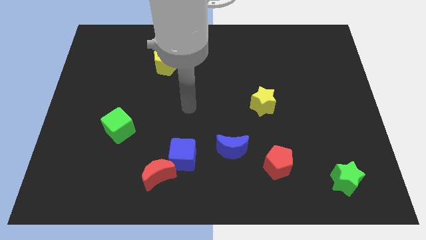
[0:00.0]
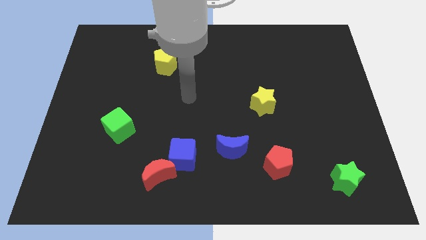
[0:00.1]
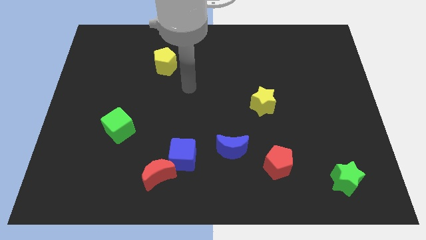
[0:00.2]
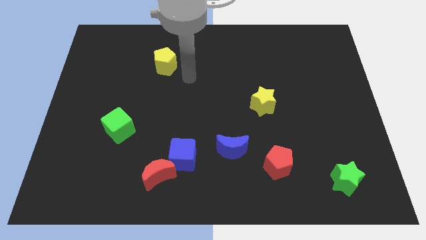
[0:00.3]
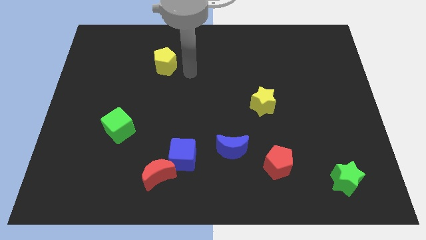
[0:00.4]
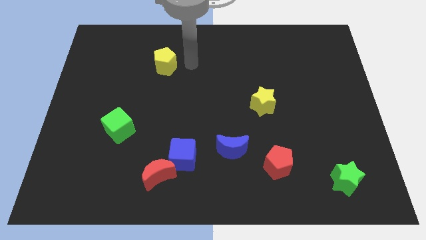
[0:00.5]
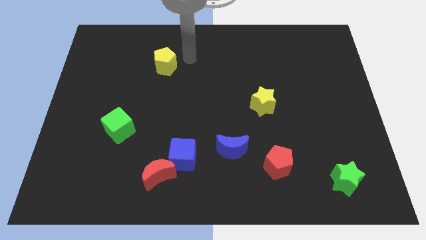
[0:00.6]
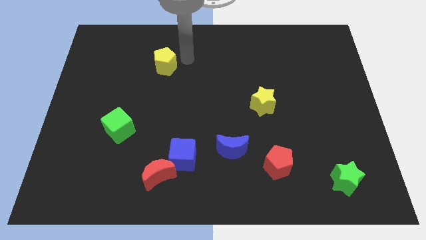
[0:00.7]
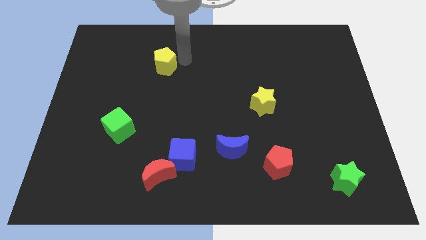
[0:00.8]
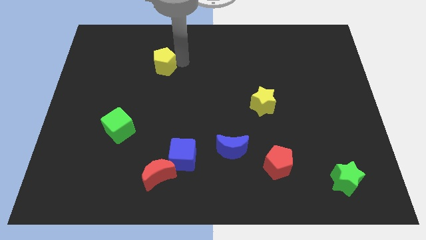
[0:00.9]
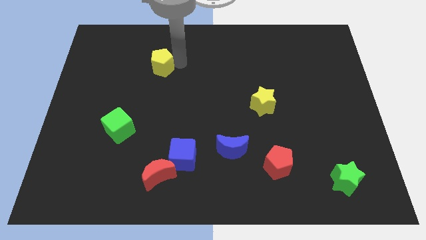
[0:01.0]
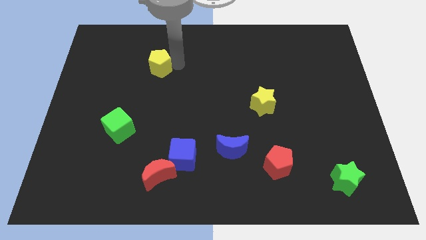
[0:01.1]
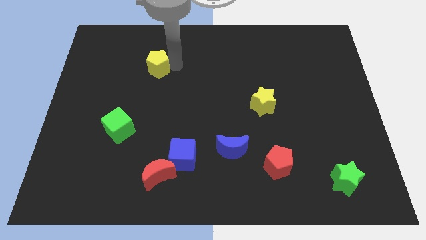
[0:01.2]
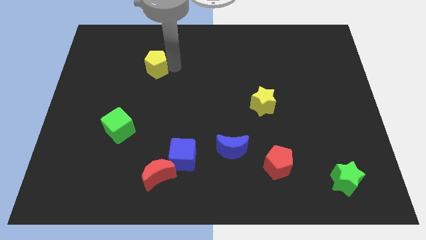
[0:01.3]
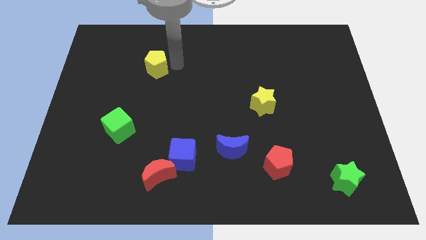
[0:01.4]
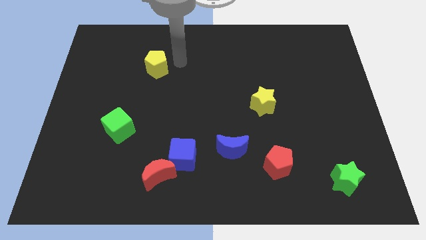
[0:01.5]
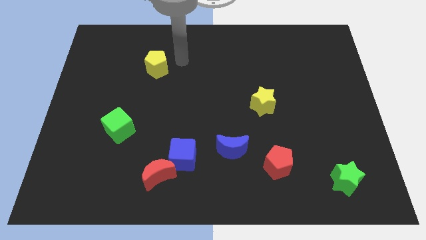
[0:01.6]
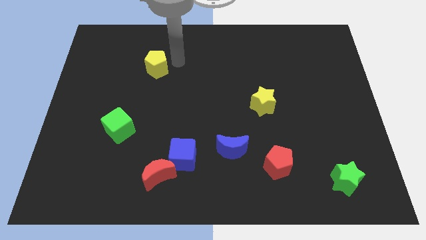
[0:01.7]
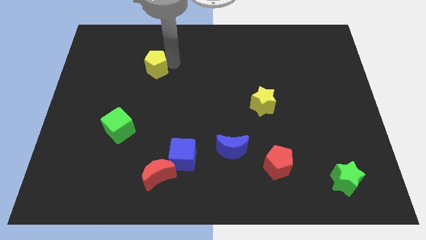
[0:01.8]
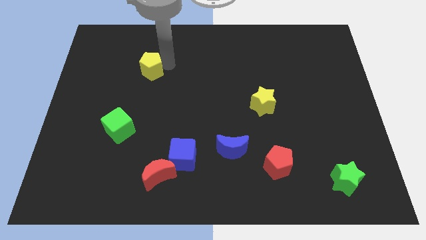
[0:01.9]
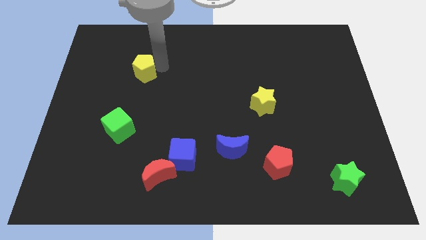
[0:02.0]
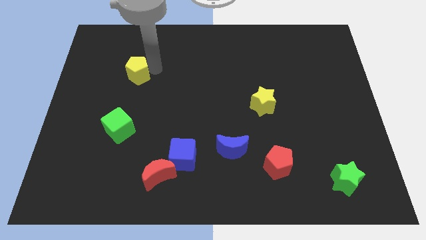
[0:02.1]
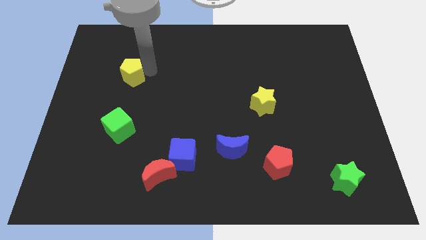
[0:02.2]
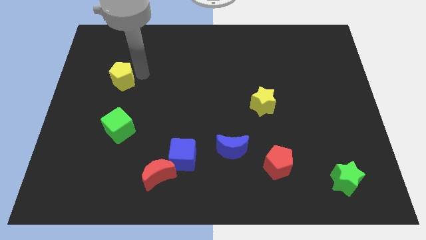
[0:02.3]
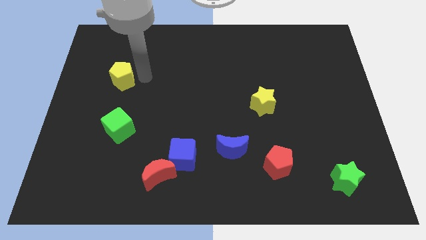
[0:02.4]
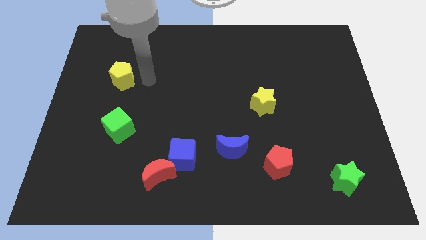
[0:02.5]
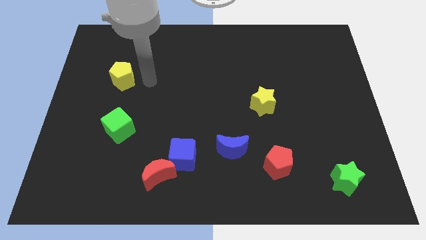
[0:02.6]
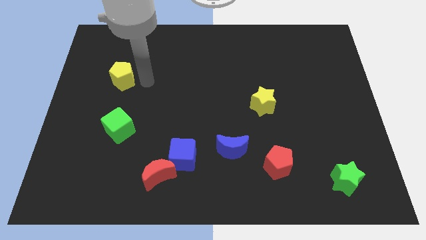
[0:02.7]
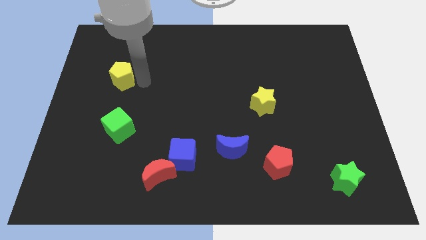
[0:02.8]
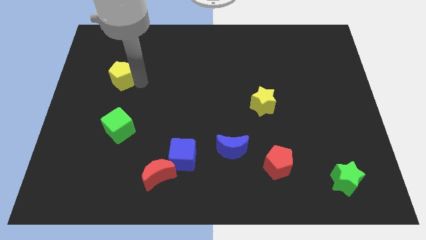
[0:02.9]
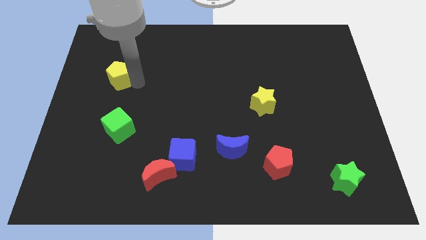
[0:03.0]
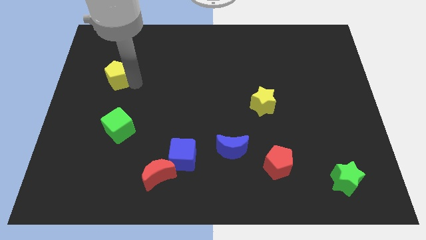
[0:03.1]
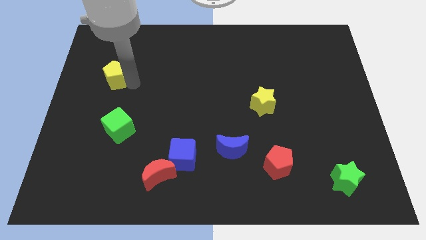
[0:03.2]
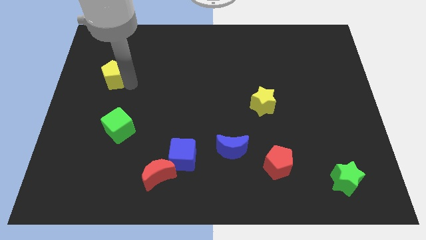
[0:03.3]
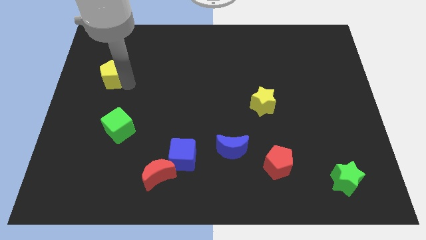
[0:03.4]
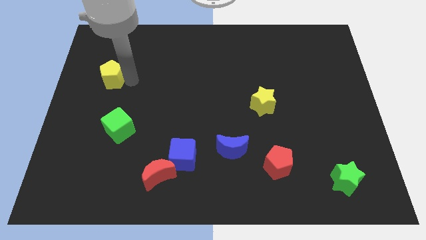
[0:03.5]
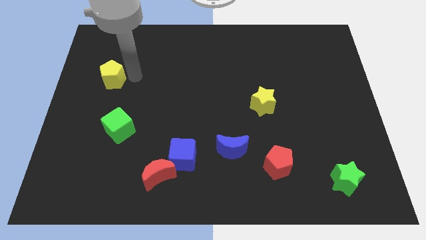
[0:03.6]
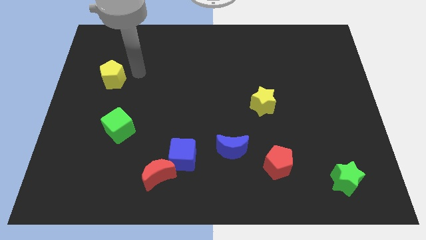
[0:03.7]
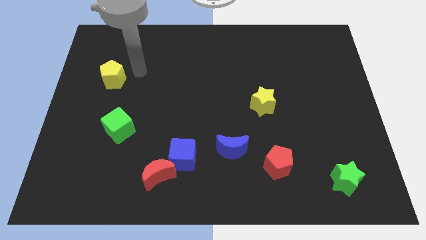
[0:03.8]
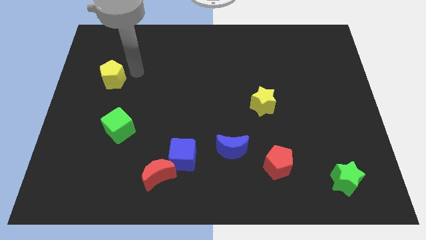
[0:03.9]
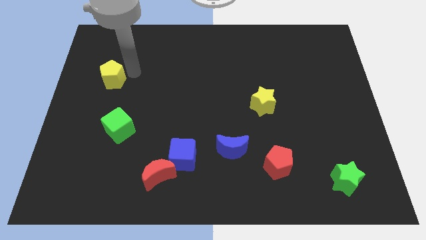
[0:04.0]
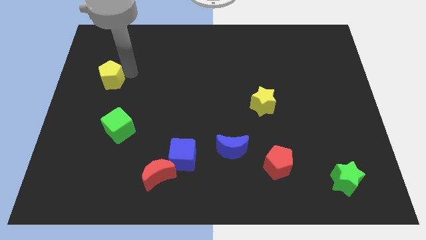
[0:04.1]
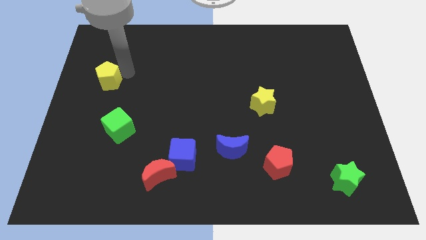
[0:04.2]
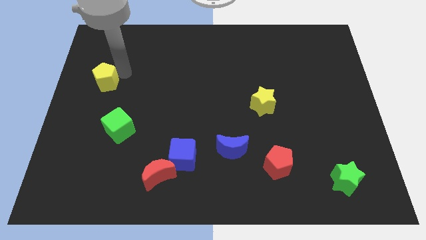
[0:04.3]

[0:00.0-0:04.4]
slide the yellow pentagon to the center left

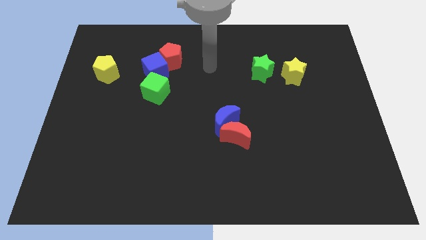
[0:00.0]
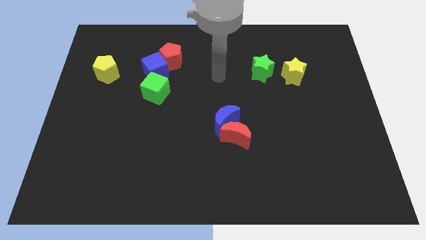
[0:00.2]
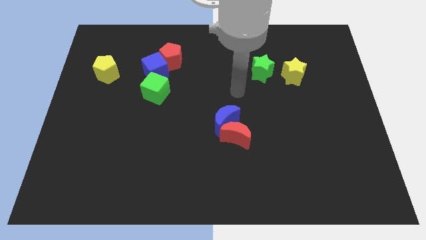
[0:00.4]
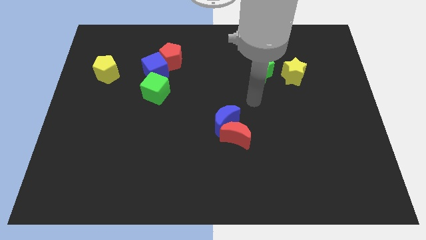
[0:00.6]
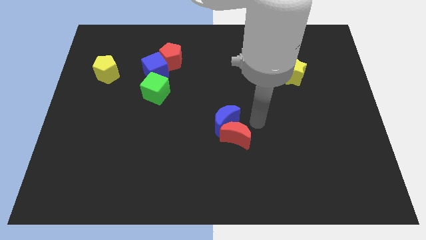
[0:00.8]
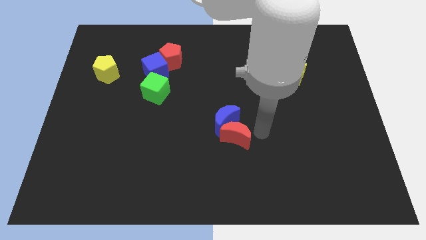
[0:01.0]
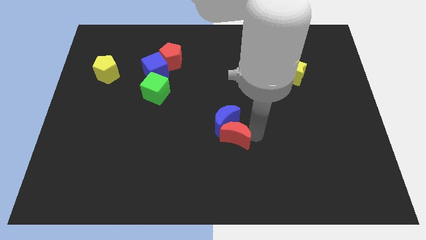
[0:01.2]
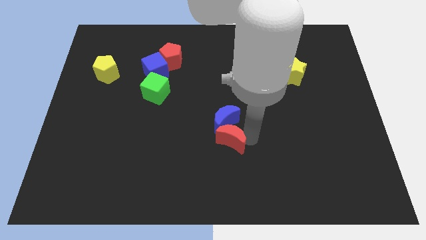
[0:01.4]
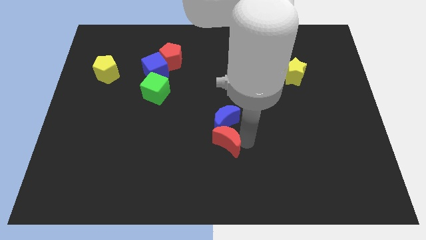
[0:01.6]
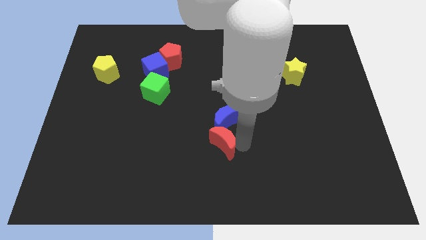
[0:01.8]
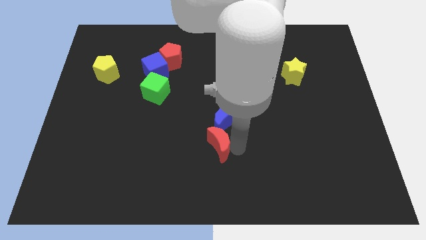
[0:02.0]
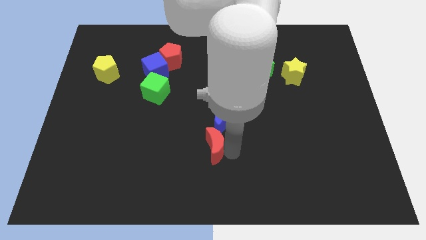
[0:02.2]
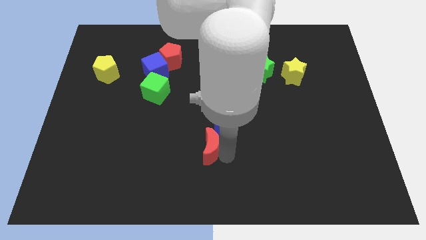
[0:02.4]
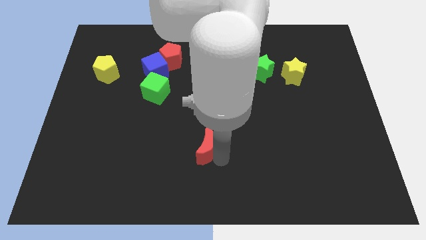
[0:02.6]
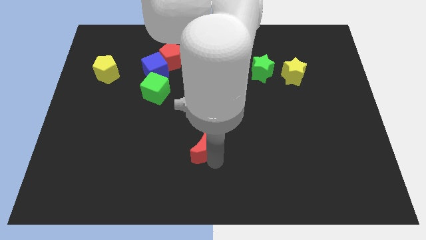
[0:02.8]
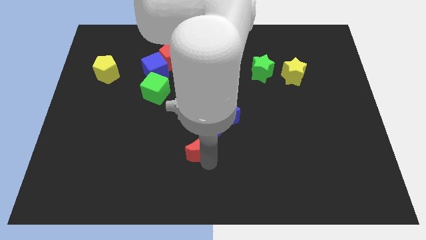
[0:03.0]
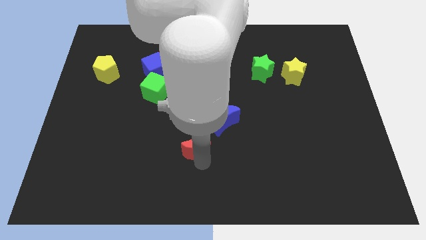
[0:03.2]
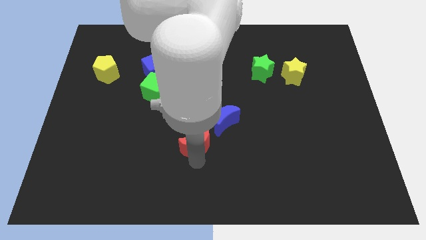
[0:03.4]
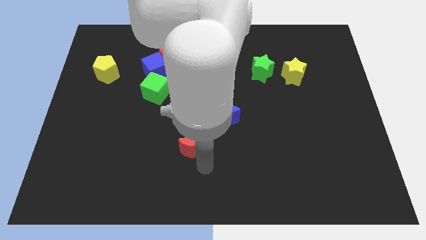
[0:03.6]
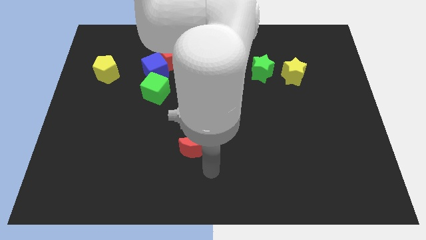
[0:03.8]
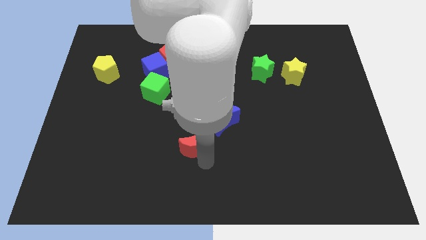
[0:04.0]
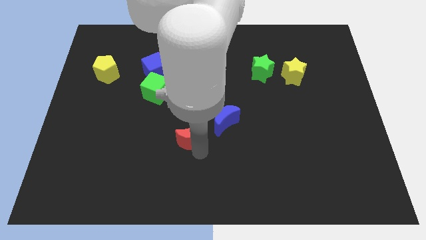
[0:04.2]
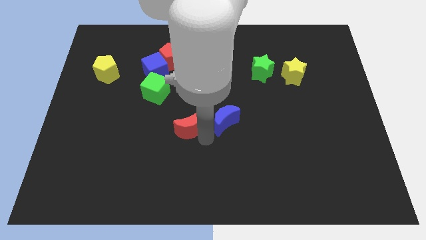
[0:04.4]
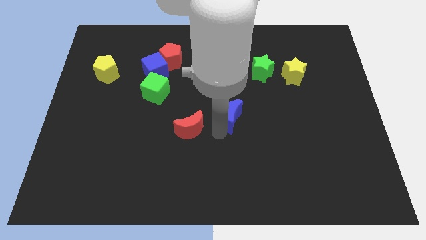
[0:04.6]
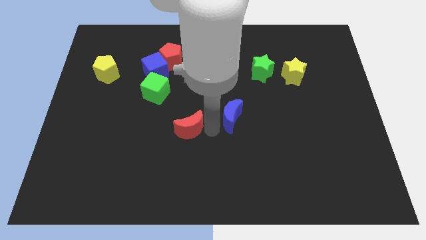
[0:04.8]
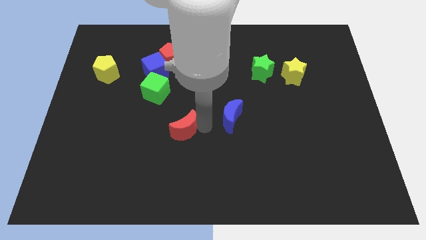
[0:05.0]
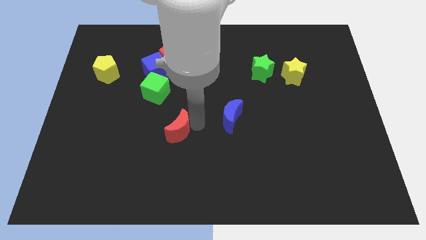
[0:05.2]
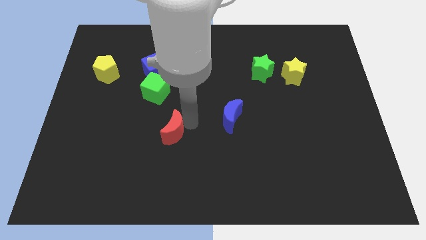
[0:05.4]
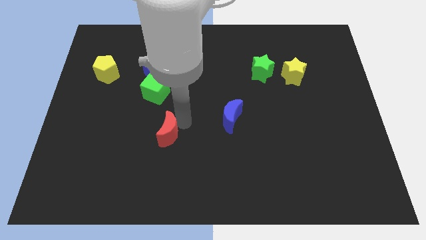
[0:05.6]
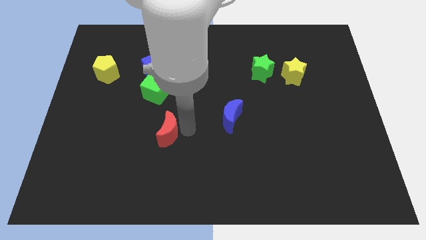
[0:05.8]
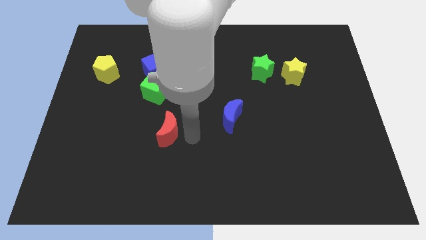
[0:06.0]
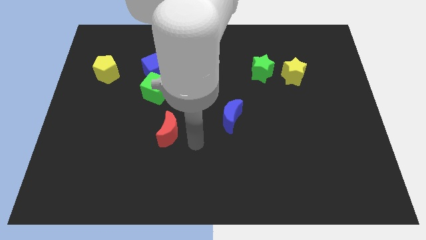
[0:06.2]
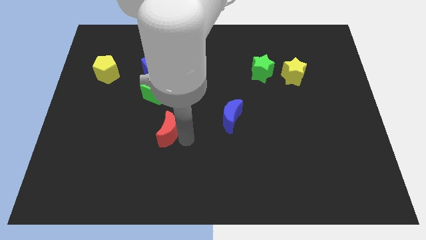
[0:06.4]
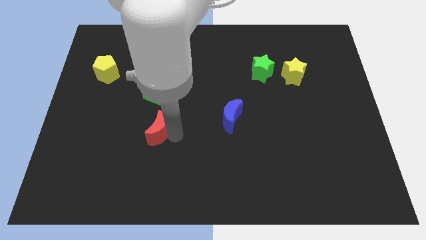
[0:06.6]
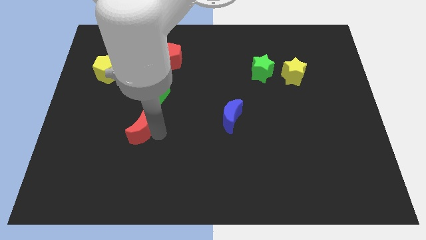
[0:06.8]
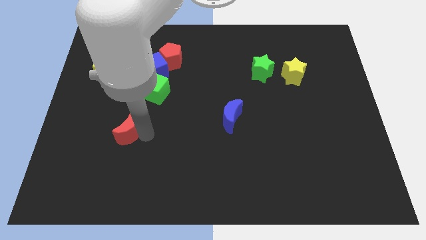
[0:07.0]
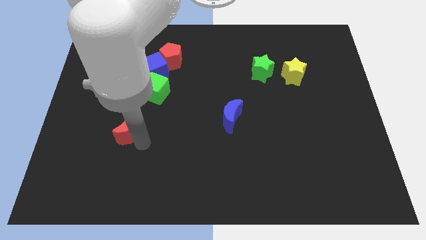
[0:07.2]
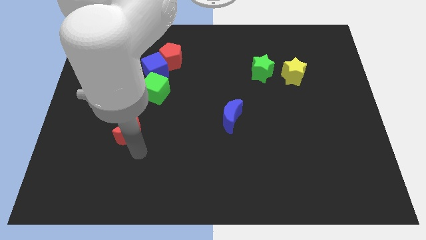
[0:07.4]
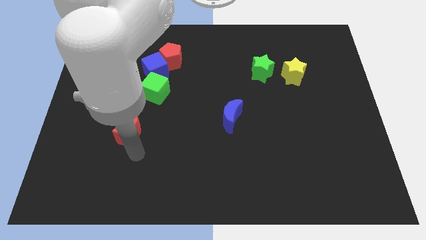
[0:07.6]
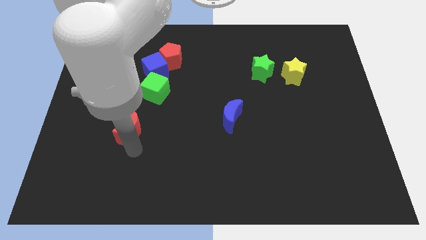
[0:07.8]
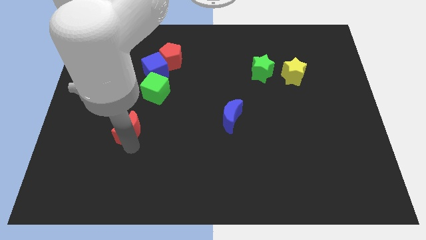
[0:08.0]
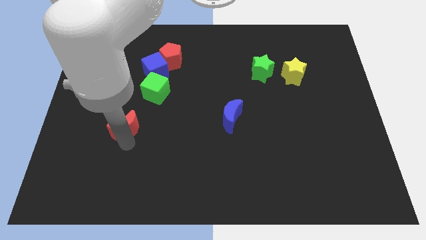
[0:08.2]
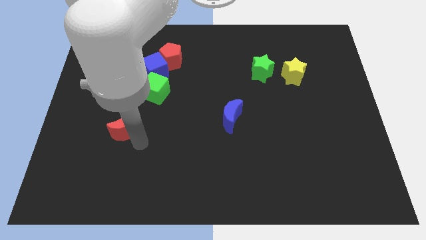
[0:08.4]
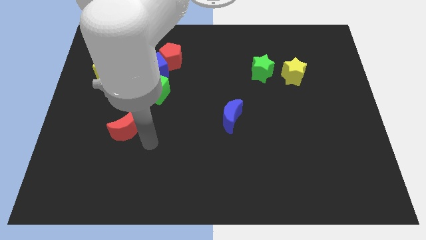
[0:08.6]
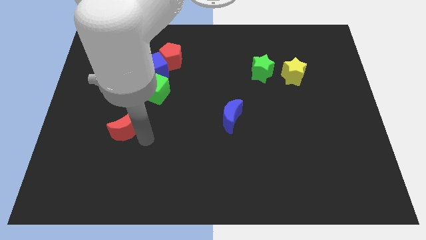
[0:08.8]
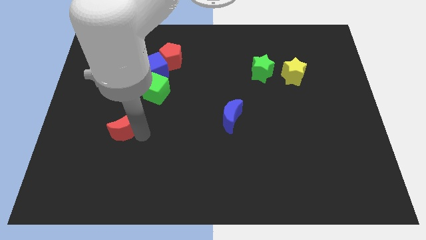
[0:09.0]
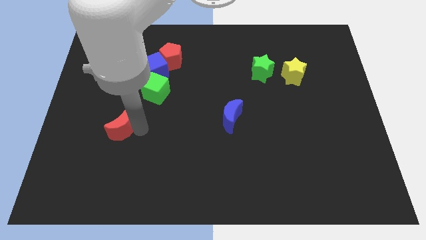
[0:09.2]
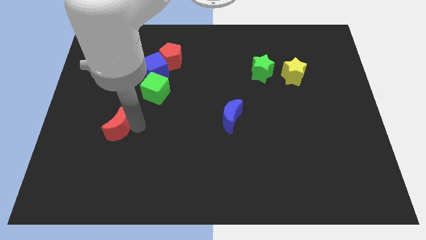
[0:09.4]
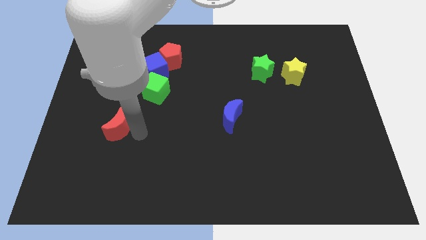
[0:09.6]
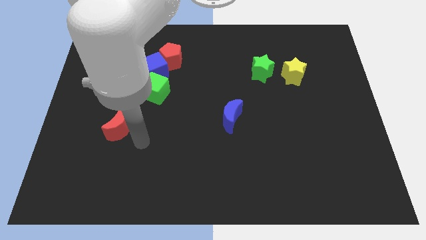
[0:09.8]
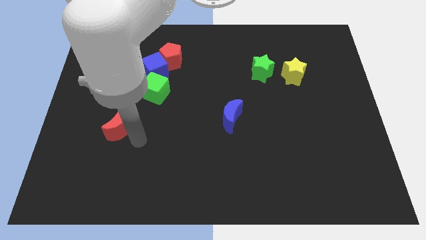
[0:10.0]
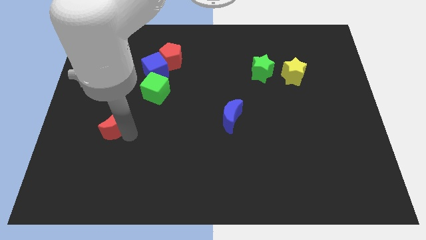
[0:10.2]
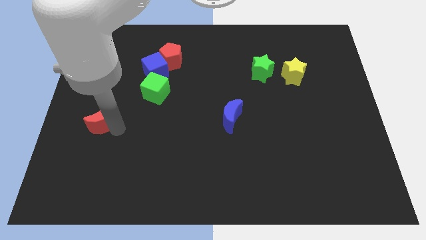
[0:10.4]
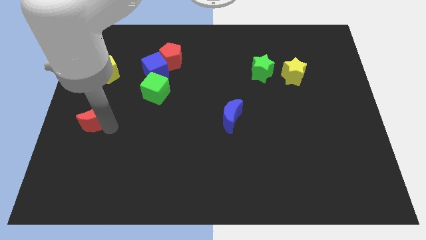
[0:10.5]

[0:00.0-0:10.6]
slide the red moon to the left side
